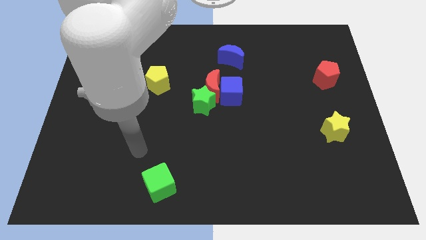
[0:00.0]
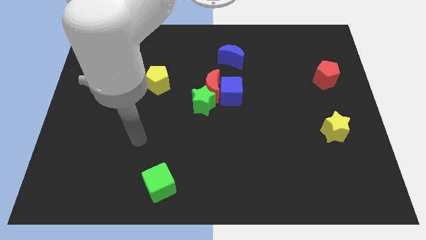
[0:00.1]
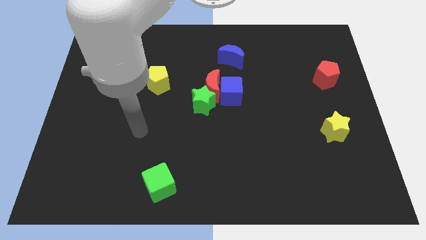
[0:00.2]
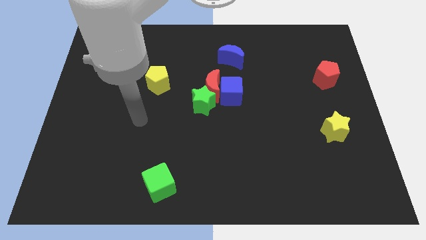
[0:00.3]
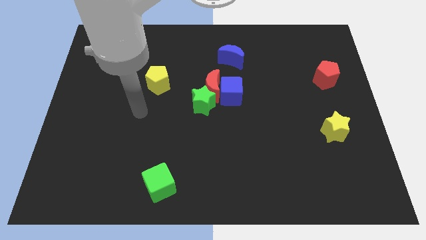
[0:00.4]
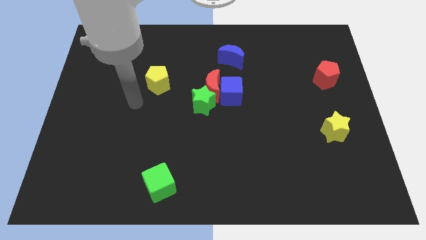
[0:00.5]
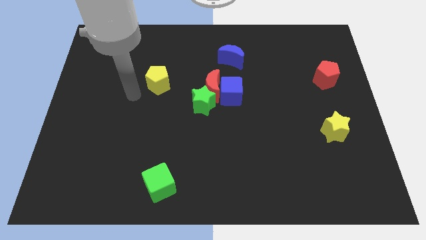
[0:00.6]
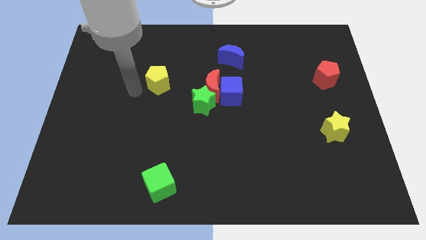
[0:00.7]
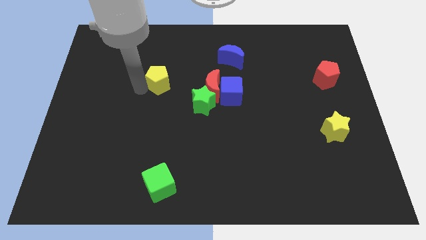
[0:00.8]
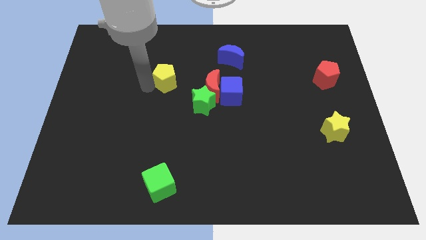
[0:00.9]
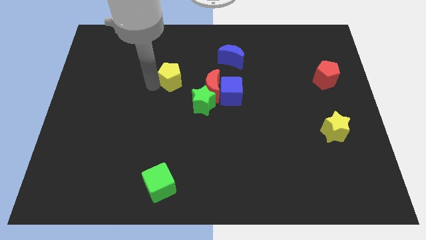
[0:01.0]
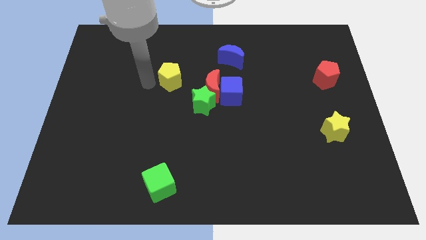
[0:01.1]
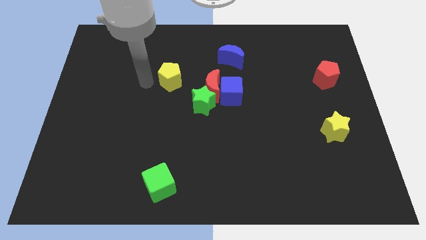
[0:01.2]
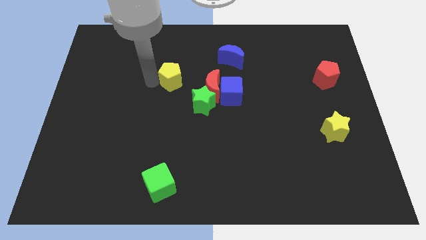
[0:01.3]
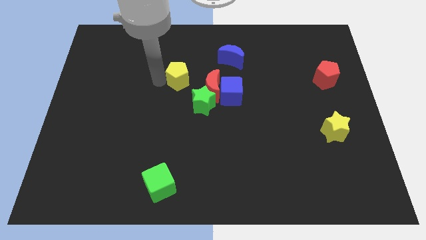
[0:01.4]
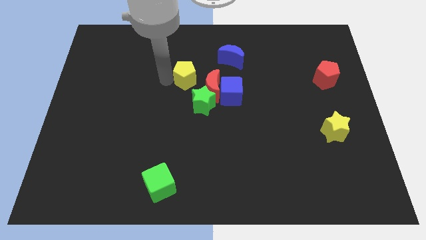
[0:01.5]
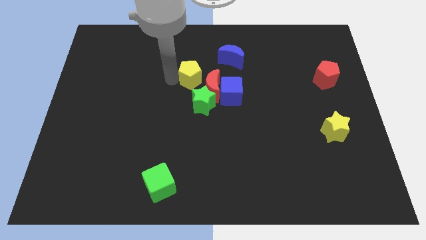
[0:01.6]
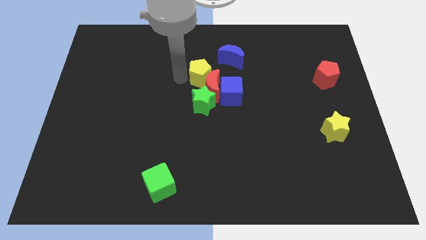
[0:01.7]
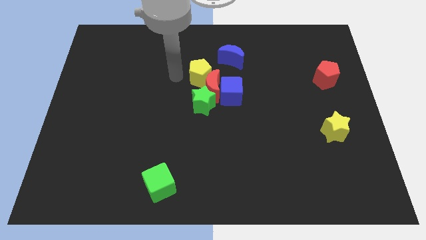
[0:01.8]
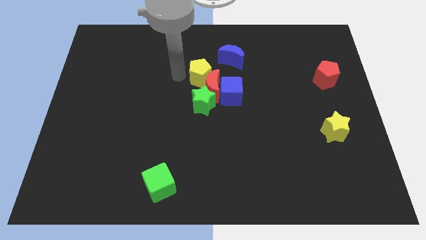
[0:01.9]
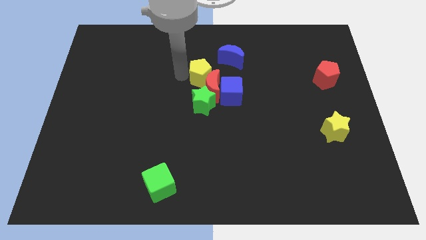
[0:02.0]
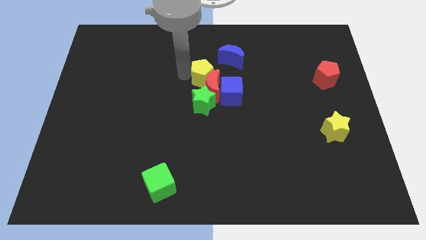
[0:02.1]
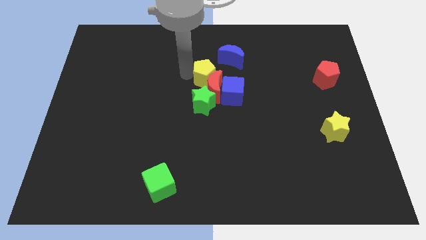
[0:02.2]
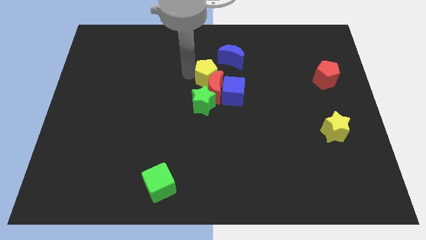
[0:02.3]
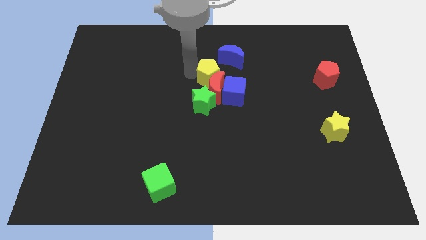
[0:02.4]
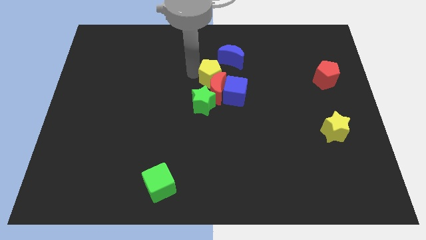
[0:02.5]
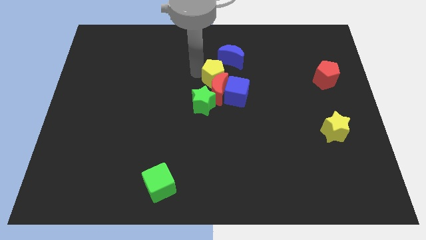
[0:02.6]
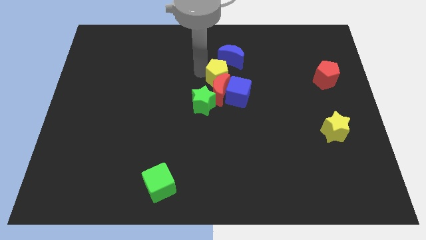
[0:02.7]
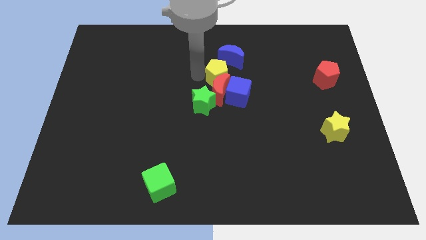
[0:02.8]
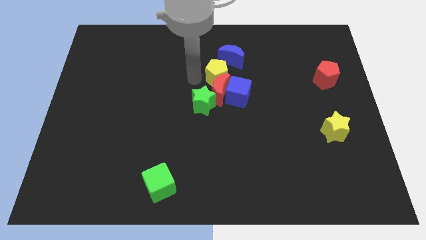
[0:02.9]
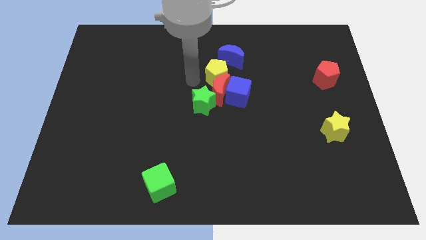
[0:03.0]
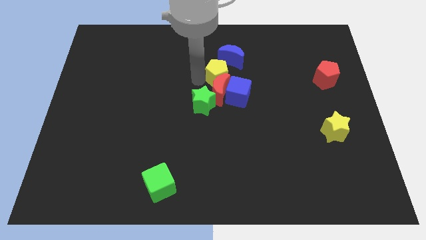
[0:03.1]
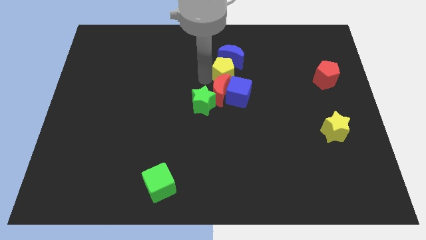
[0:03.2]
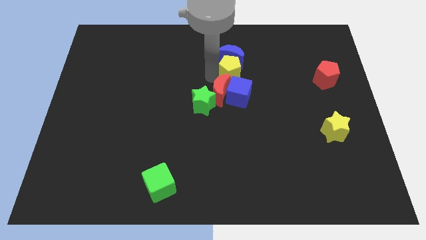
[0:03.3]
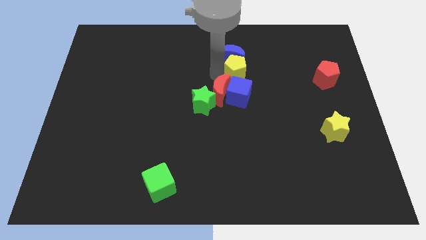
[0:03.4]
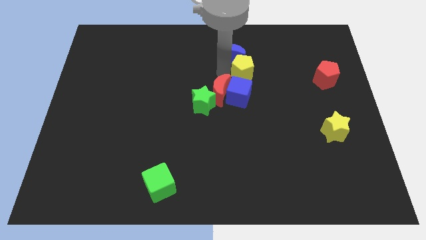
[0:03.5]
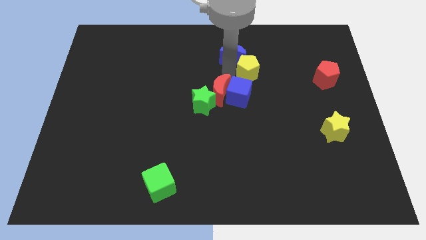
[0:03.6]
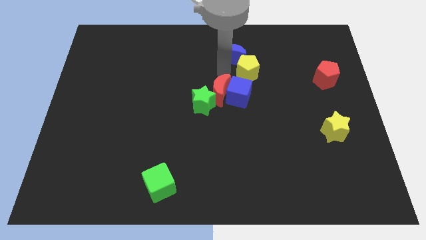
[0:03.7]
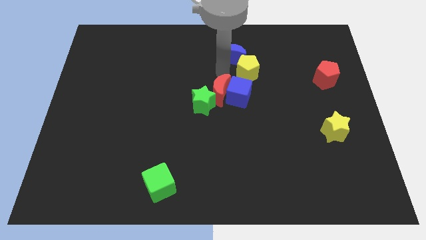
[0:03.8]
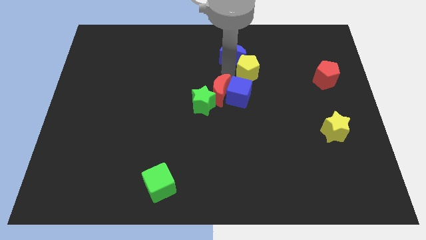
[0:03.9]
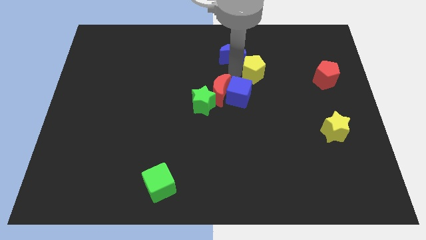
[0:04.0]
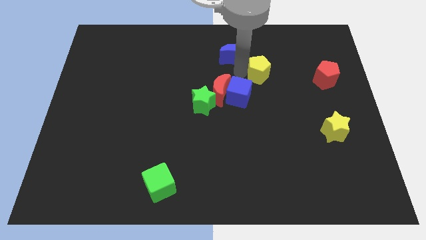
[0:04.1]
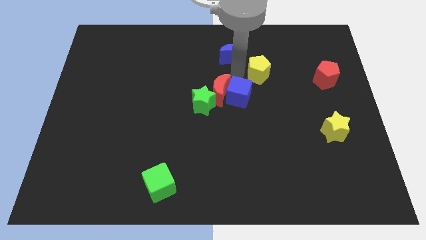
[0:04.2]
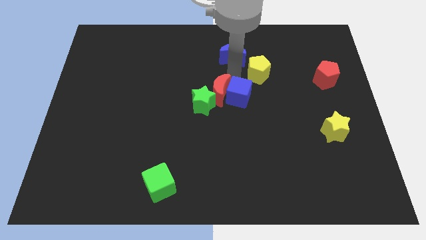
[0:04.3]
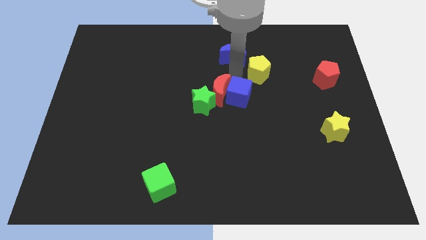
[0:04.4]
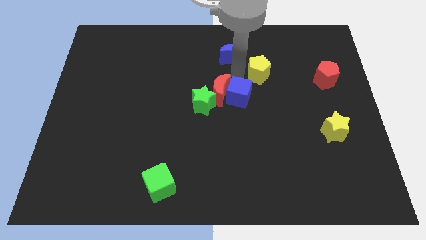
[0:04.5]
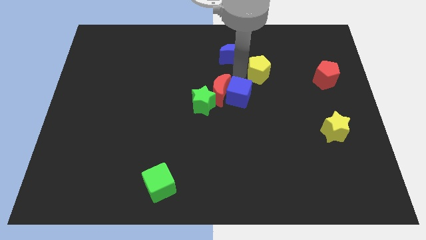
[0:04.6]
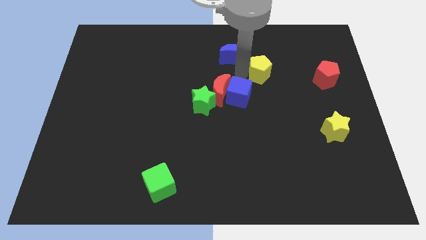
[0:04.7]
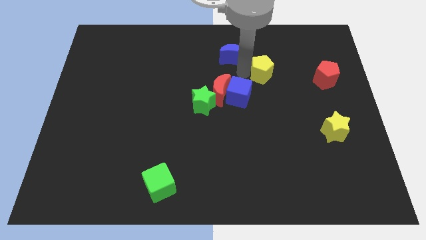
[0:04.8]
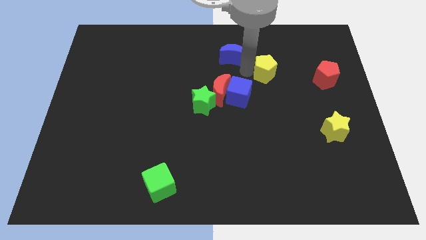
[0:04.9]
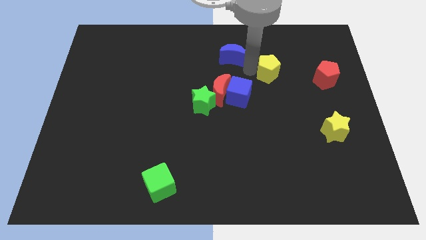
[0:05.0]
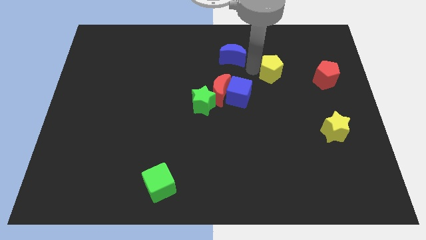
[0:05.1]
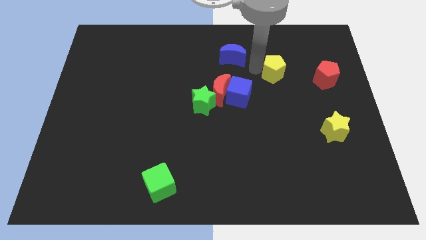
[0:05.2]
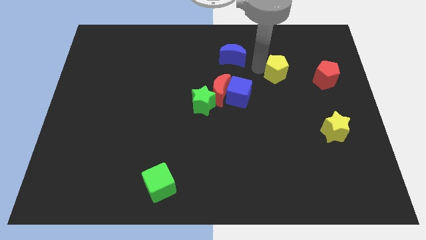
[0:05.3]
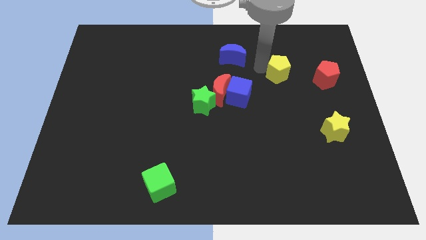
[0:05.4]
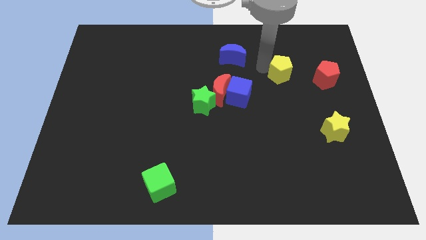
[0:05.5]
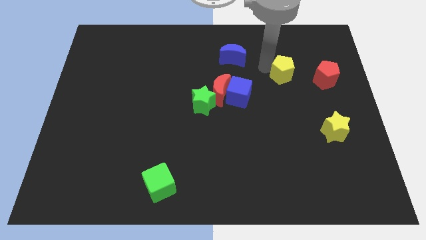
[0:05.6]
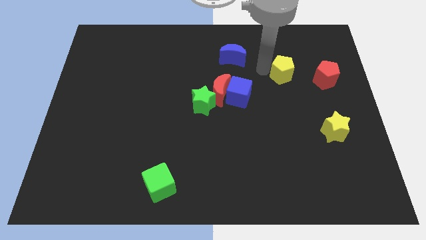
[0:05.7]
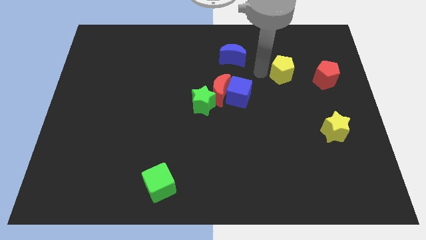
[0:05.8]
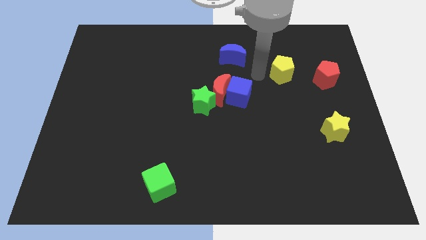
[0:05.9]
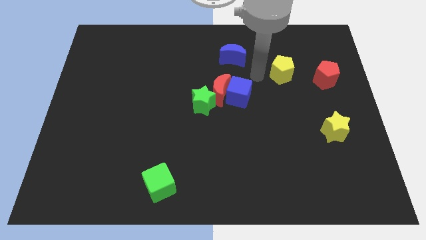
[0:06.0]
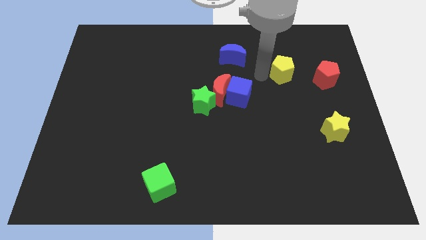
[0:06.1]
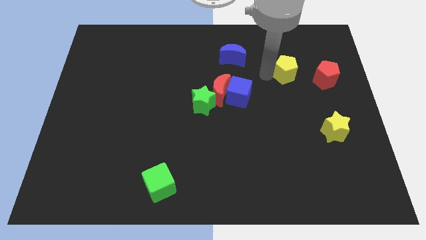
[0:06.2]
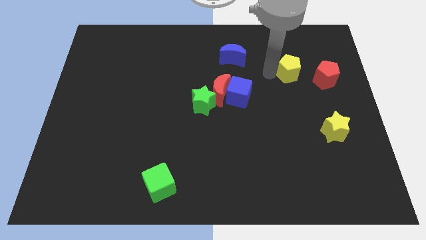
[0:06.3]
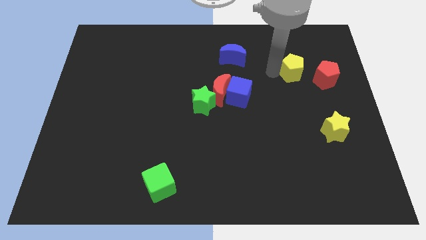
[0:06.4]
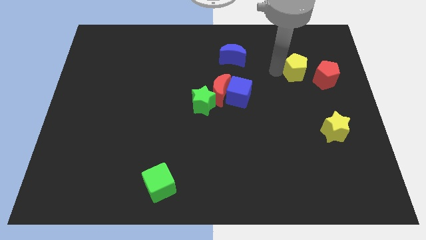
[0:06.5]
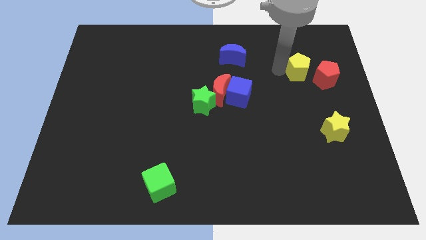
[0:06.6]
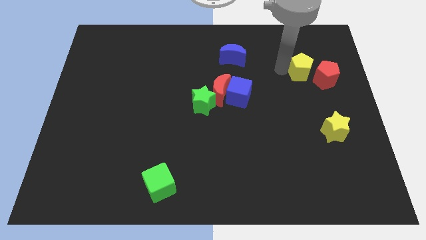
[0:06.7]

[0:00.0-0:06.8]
put the yellow pentagon towards the red pentagon
